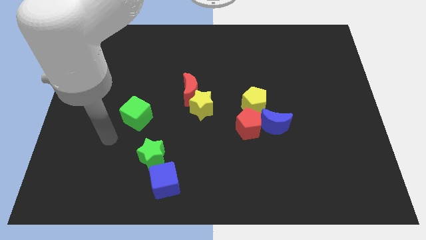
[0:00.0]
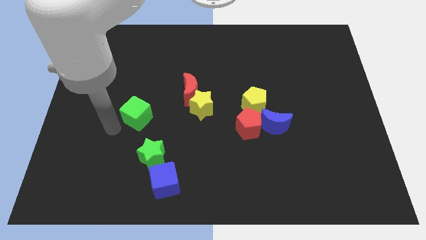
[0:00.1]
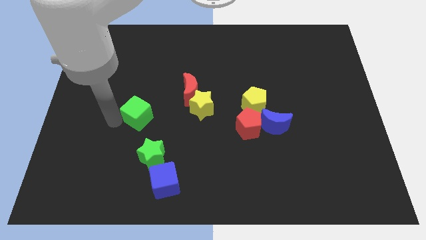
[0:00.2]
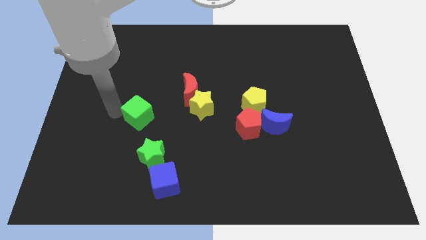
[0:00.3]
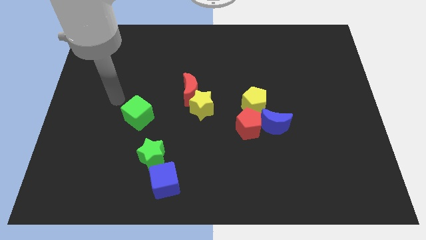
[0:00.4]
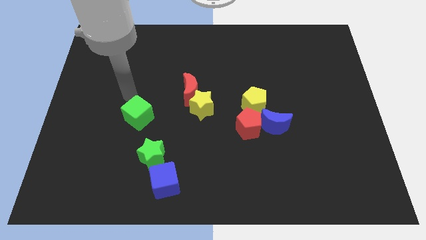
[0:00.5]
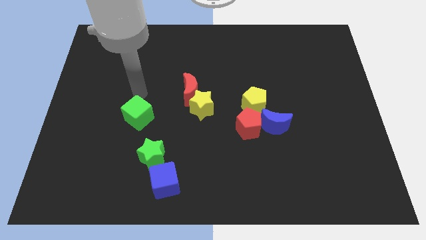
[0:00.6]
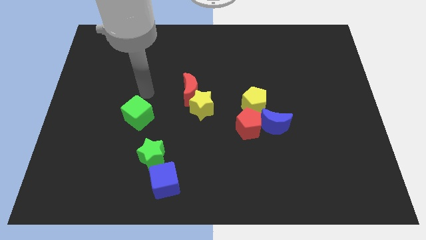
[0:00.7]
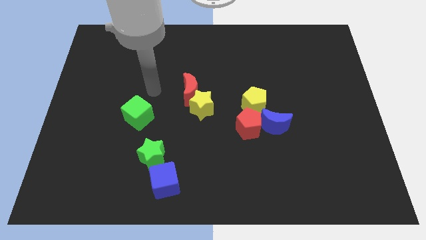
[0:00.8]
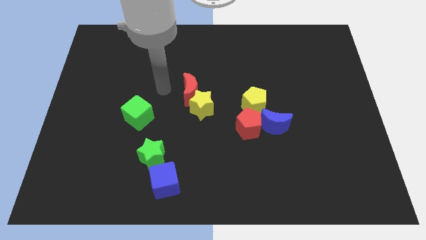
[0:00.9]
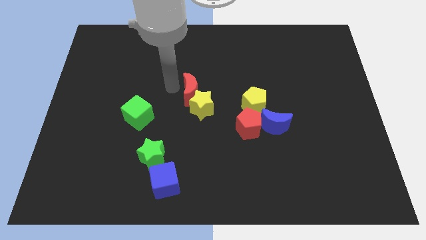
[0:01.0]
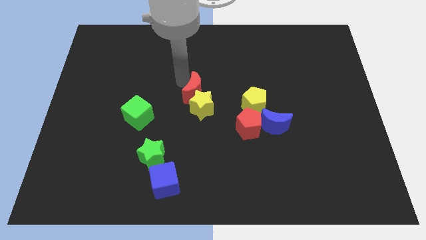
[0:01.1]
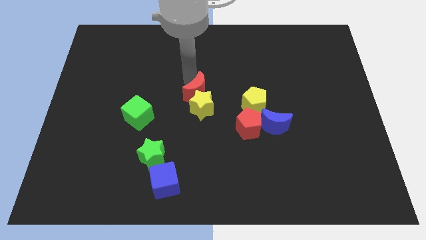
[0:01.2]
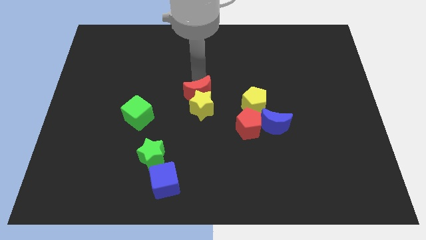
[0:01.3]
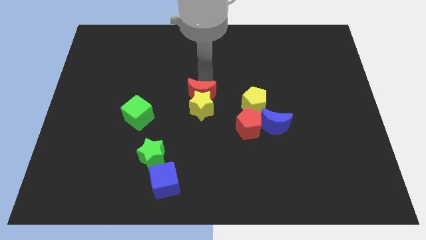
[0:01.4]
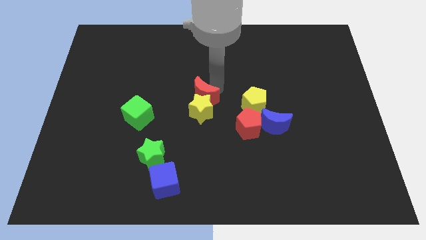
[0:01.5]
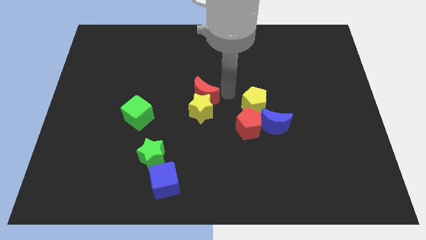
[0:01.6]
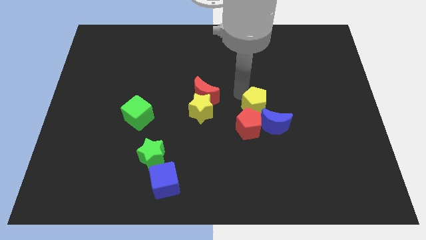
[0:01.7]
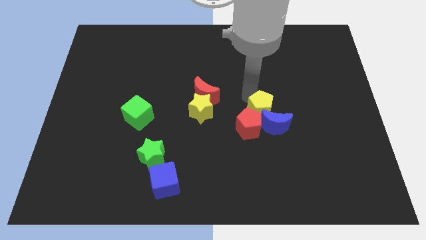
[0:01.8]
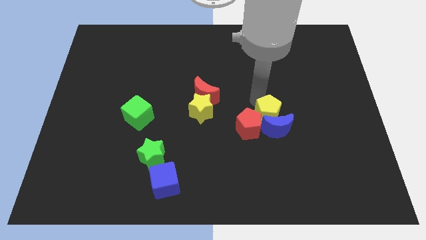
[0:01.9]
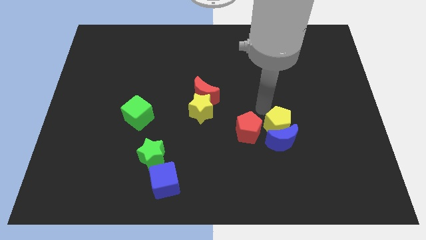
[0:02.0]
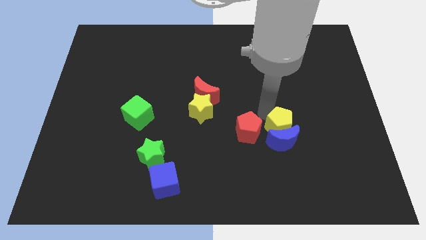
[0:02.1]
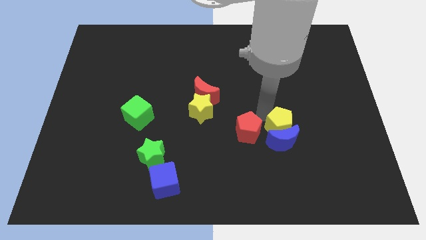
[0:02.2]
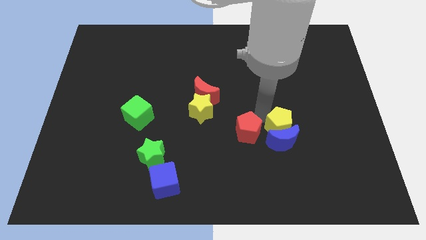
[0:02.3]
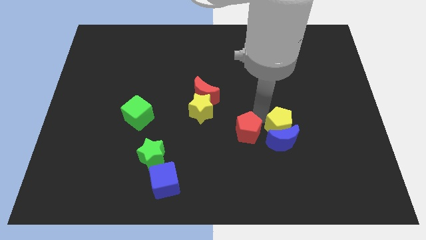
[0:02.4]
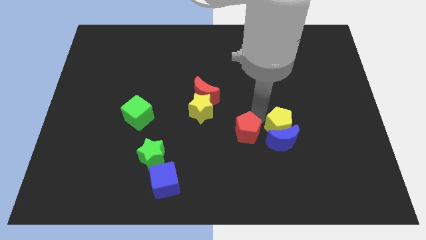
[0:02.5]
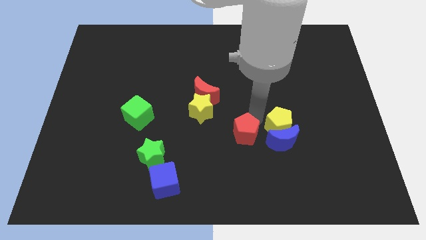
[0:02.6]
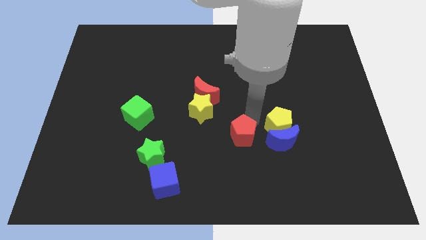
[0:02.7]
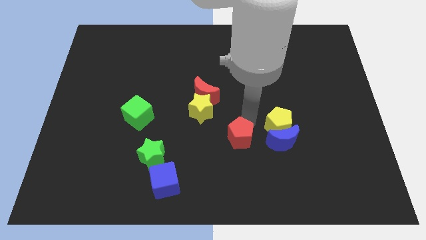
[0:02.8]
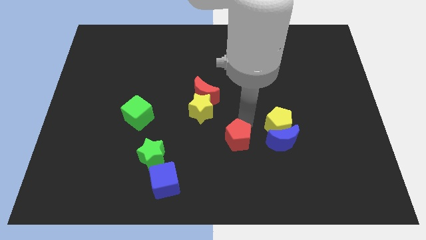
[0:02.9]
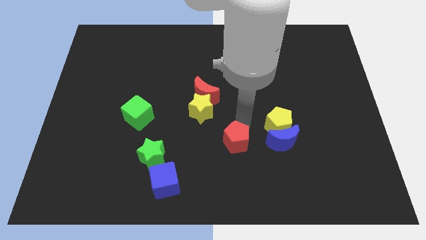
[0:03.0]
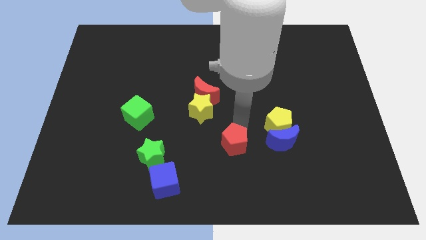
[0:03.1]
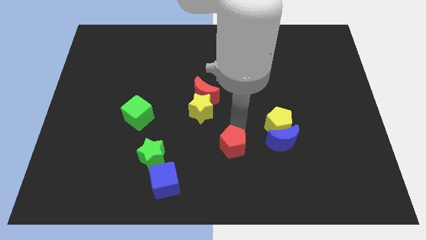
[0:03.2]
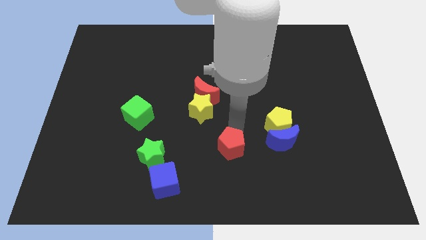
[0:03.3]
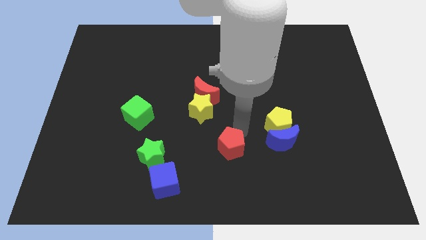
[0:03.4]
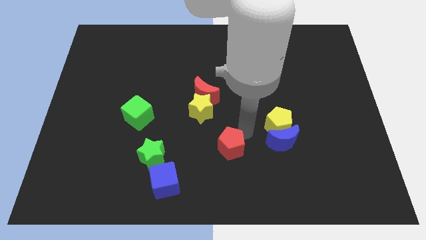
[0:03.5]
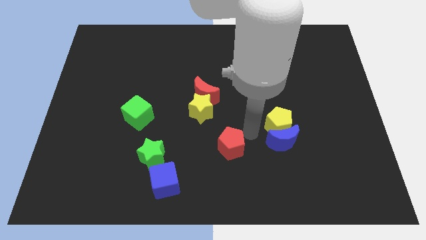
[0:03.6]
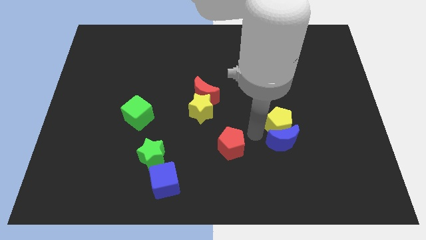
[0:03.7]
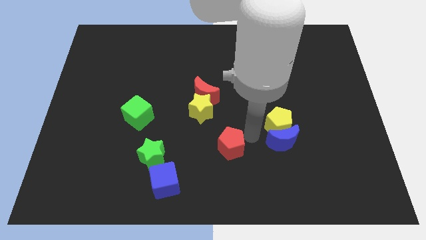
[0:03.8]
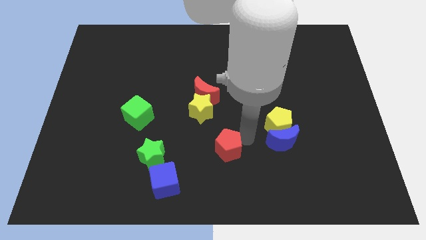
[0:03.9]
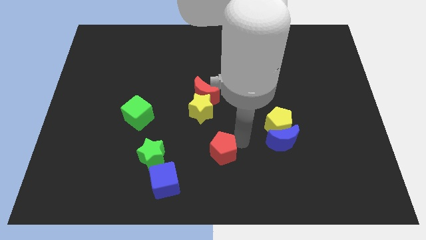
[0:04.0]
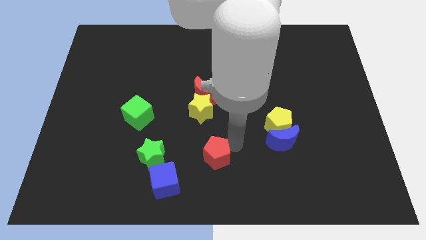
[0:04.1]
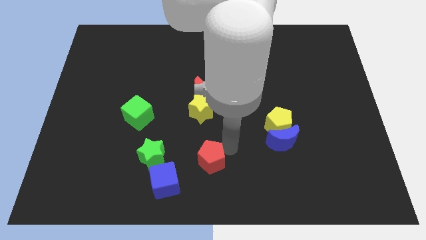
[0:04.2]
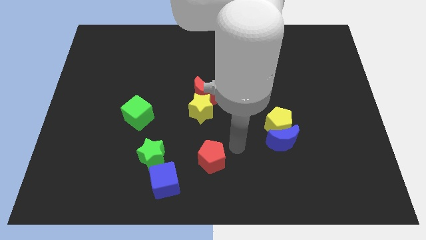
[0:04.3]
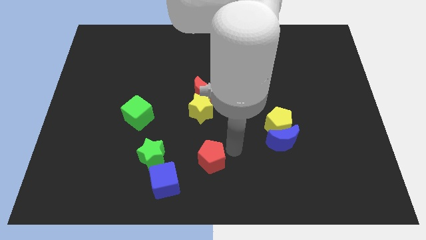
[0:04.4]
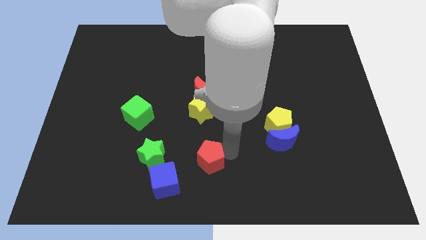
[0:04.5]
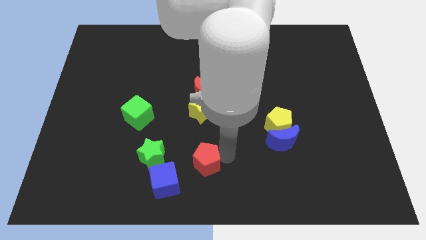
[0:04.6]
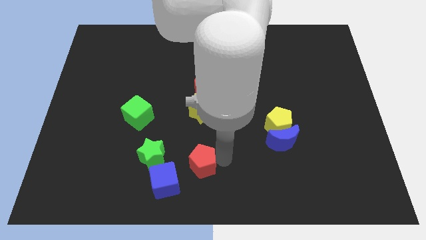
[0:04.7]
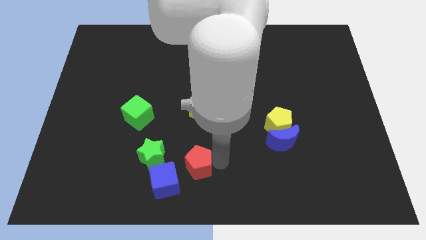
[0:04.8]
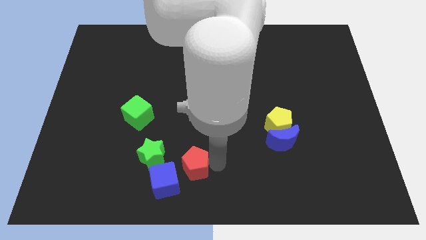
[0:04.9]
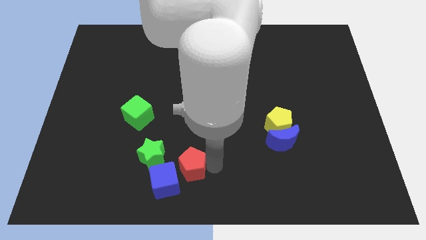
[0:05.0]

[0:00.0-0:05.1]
push the red pentagon close to the blue cube

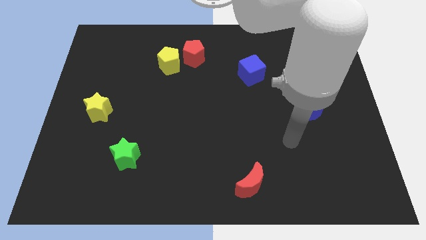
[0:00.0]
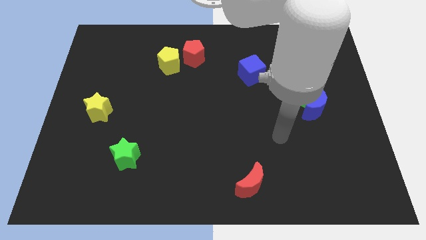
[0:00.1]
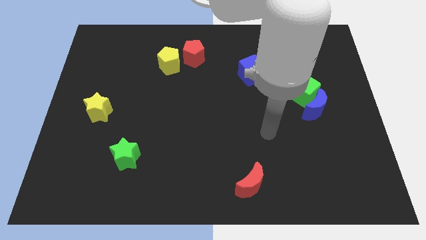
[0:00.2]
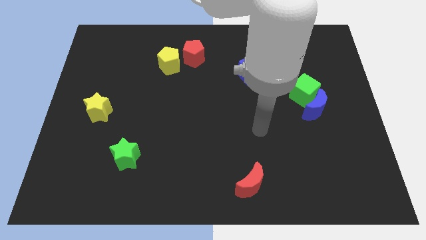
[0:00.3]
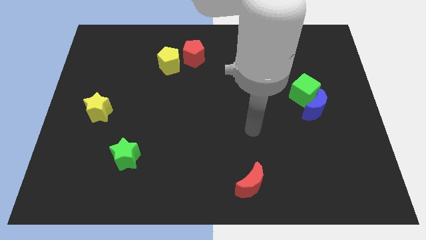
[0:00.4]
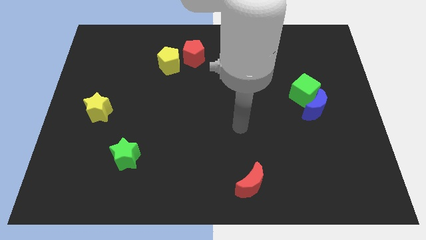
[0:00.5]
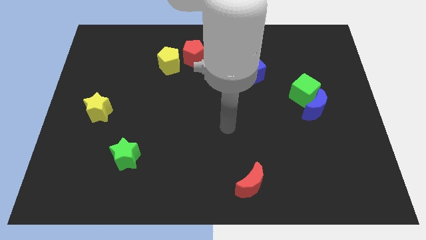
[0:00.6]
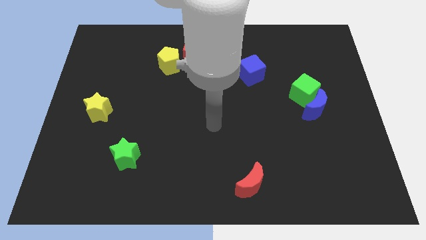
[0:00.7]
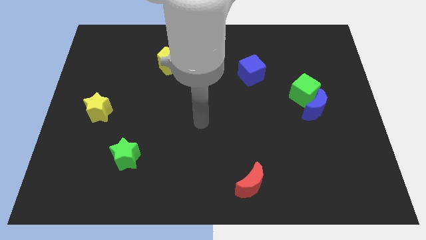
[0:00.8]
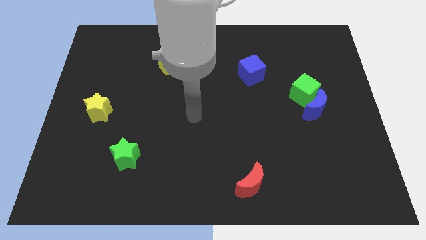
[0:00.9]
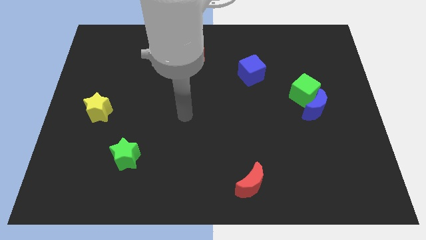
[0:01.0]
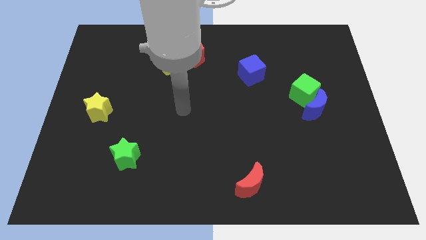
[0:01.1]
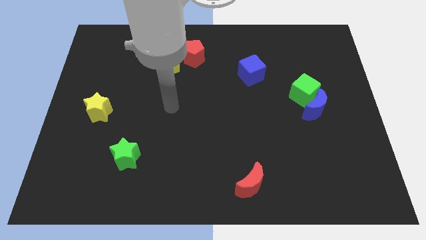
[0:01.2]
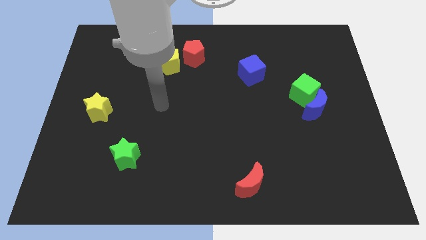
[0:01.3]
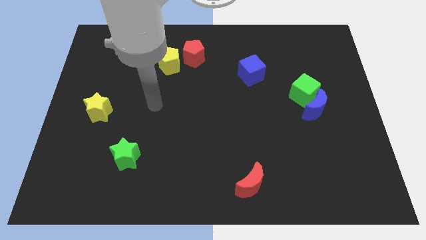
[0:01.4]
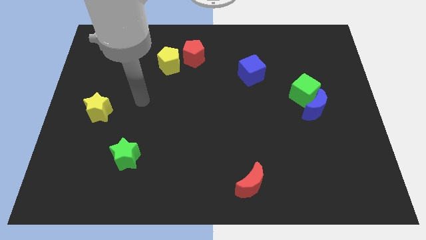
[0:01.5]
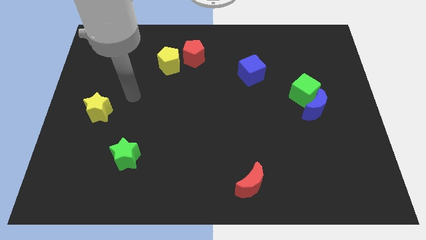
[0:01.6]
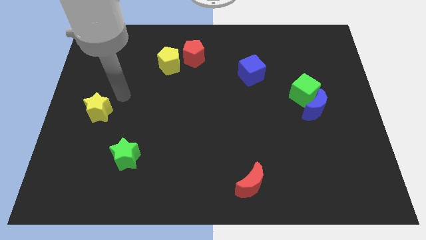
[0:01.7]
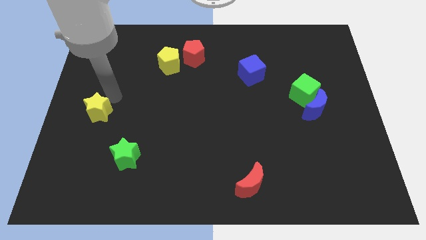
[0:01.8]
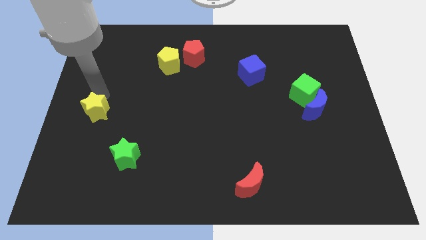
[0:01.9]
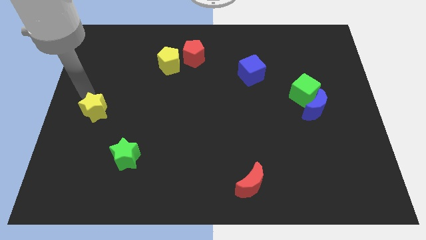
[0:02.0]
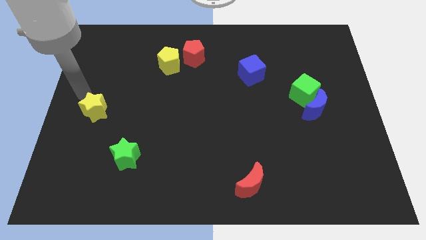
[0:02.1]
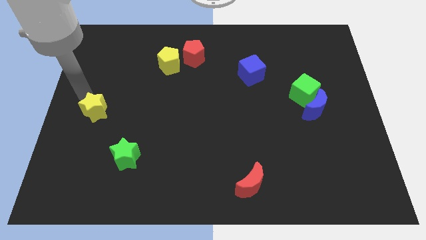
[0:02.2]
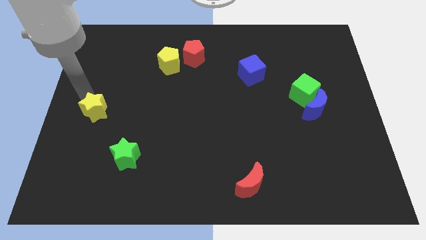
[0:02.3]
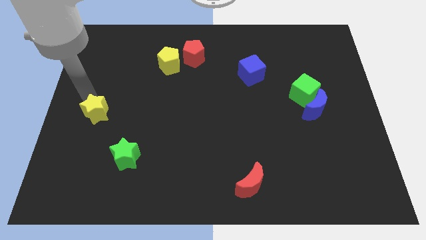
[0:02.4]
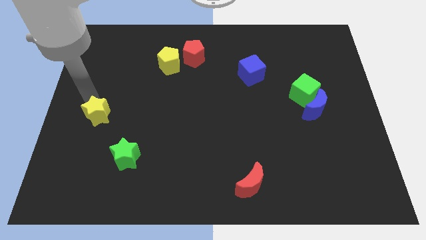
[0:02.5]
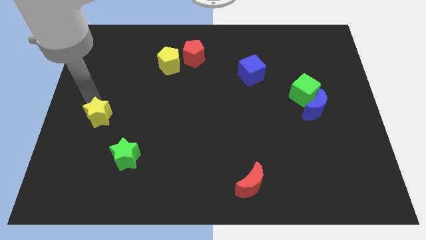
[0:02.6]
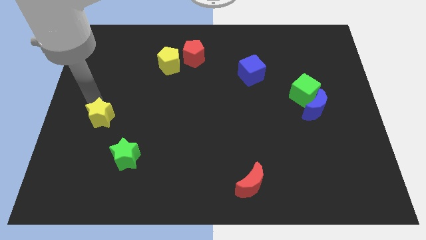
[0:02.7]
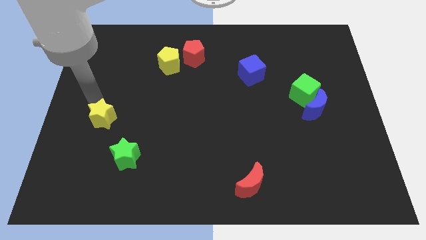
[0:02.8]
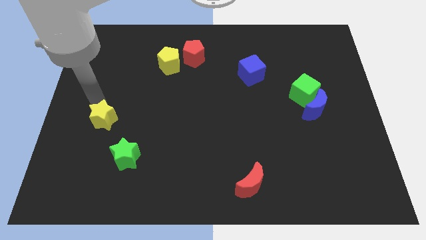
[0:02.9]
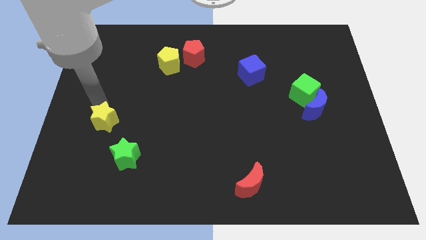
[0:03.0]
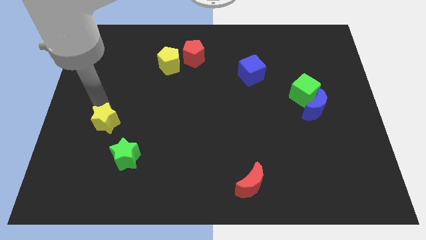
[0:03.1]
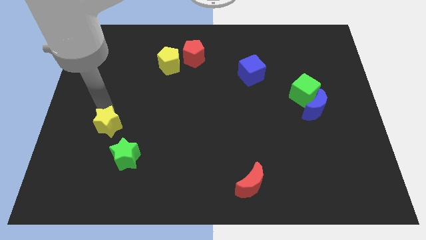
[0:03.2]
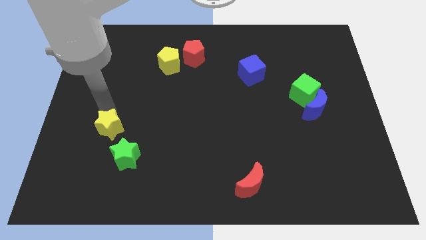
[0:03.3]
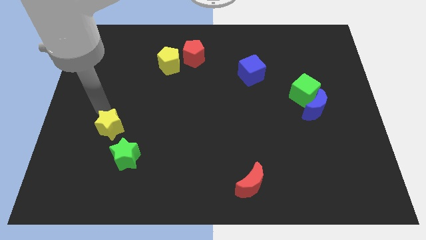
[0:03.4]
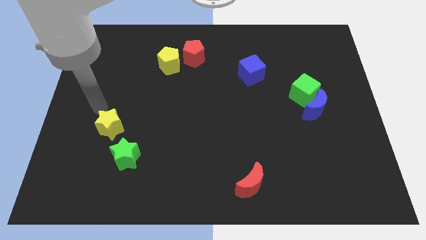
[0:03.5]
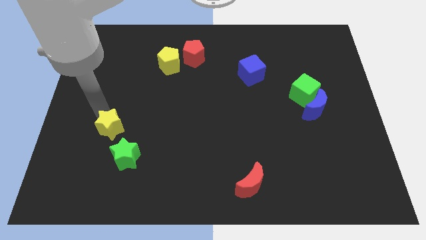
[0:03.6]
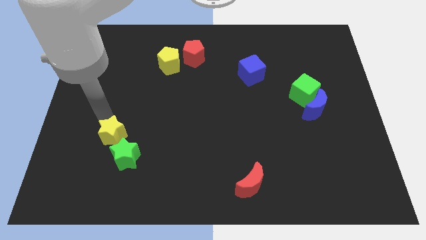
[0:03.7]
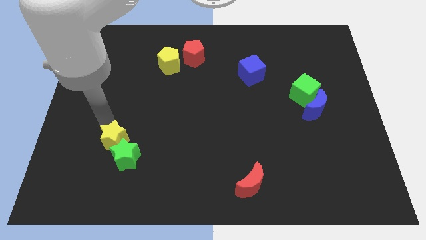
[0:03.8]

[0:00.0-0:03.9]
slide the yellow star towards the green star
